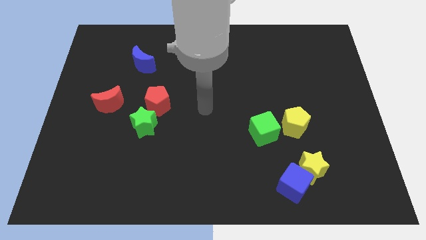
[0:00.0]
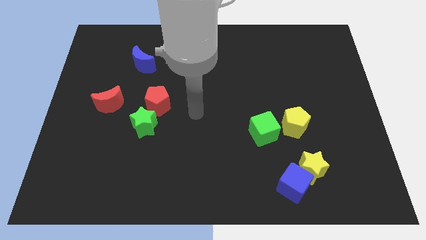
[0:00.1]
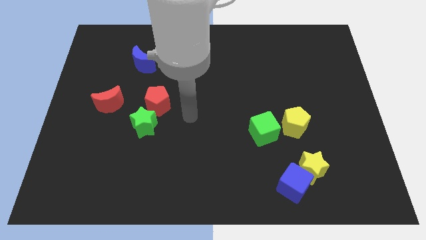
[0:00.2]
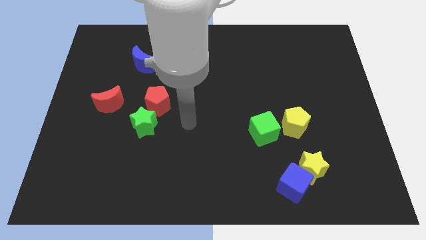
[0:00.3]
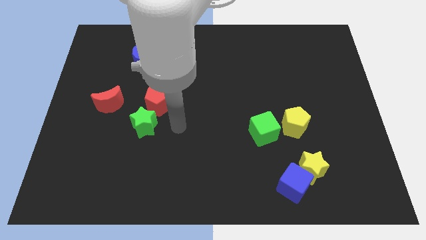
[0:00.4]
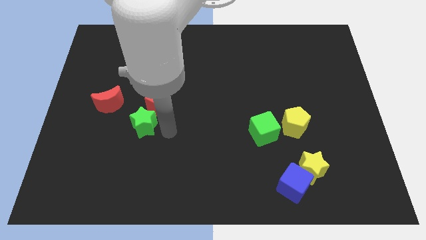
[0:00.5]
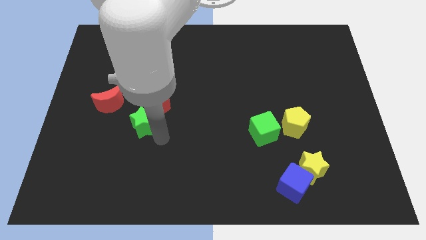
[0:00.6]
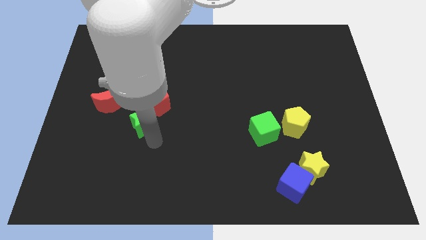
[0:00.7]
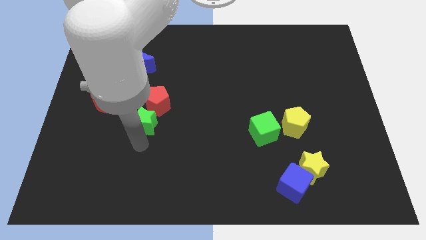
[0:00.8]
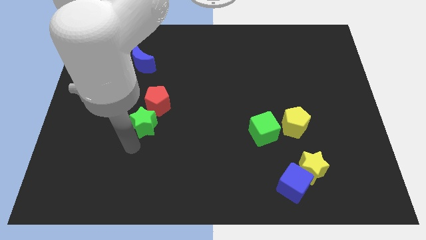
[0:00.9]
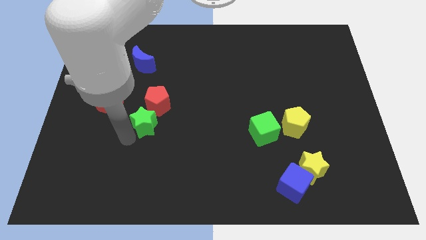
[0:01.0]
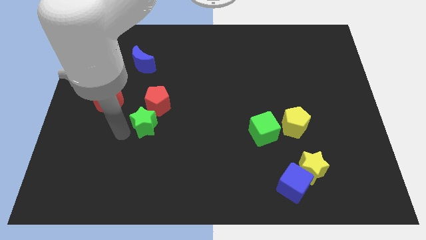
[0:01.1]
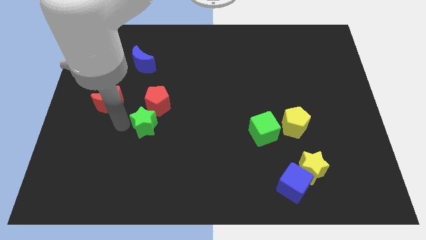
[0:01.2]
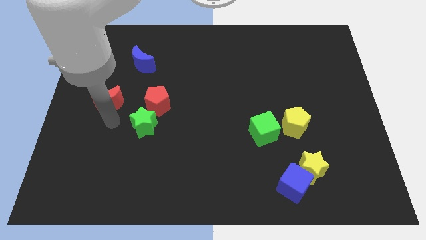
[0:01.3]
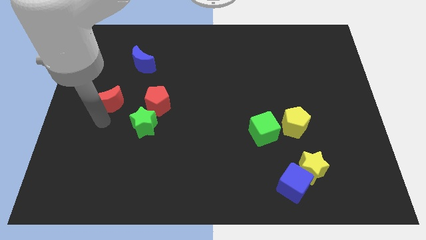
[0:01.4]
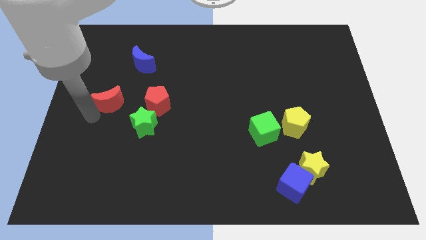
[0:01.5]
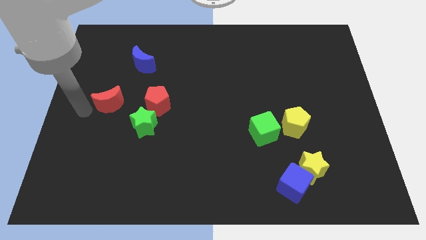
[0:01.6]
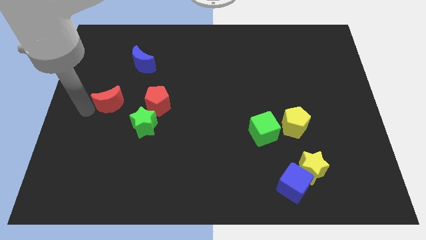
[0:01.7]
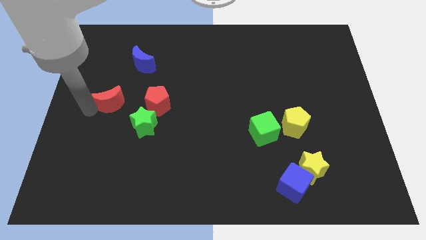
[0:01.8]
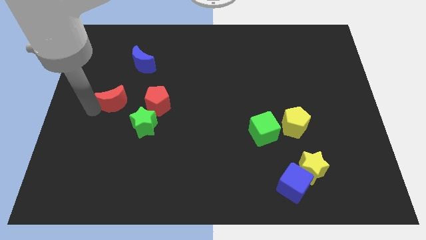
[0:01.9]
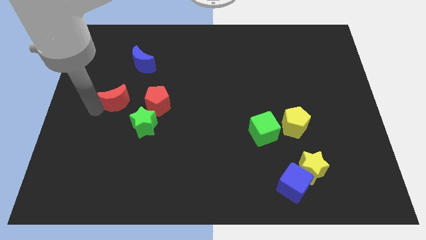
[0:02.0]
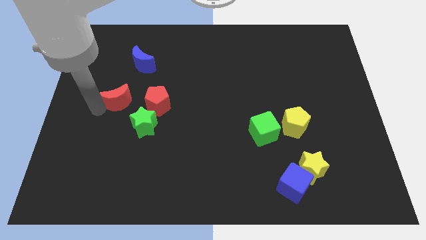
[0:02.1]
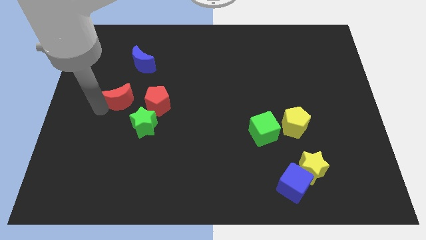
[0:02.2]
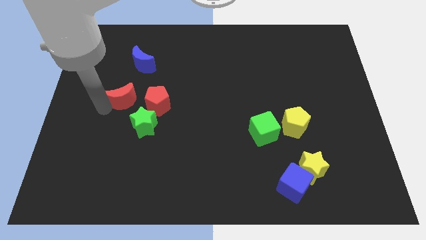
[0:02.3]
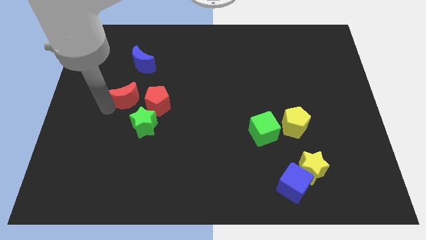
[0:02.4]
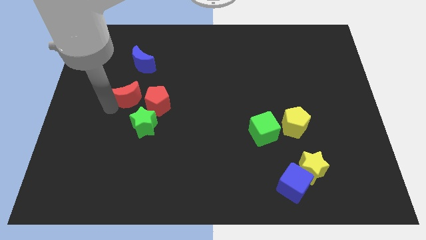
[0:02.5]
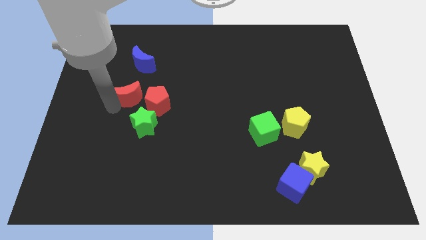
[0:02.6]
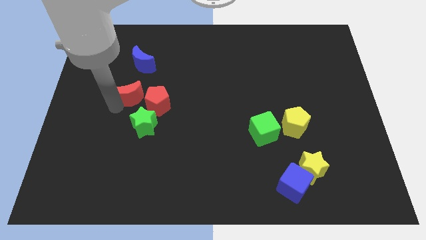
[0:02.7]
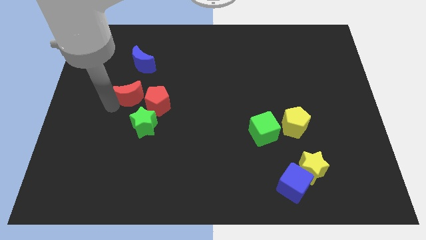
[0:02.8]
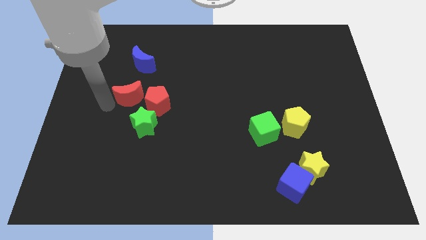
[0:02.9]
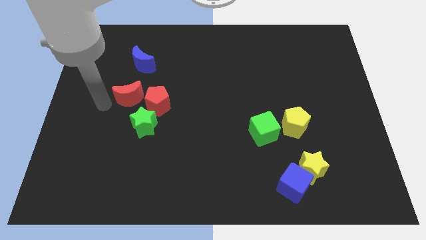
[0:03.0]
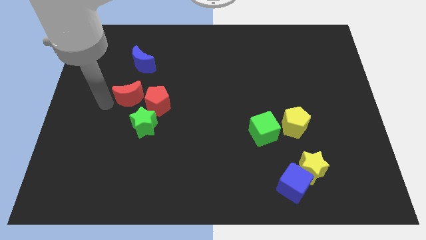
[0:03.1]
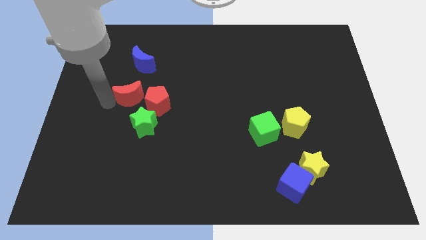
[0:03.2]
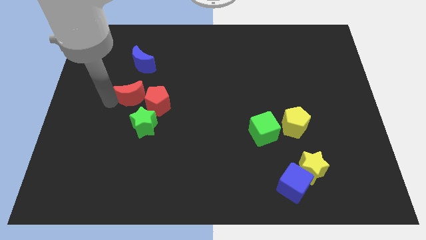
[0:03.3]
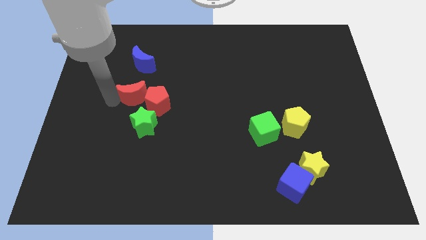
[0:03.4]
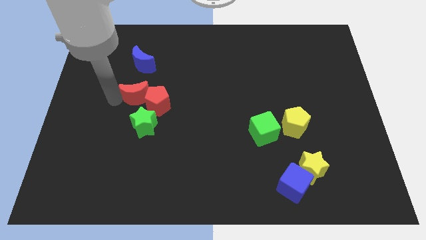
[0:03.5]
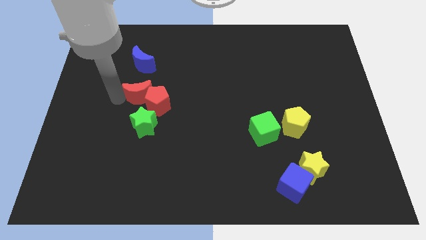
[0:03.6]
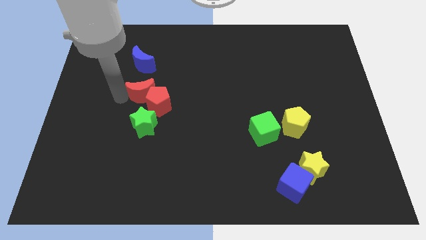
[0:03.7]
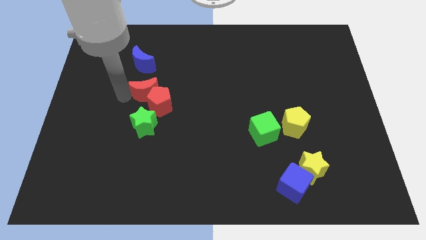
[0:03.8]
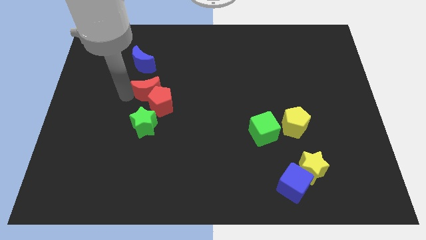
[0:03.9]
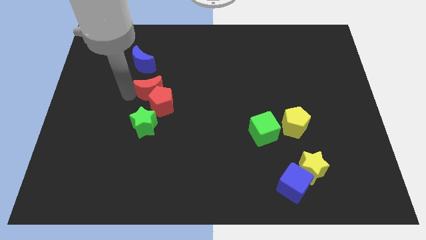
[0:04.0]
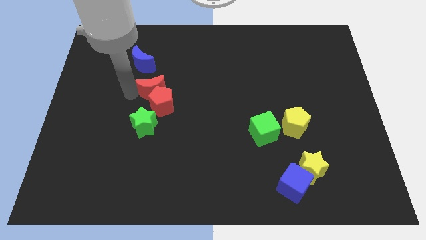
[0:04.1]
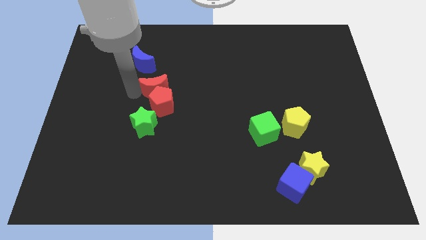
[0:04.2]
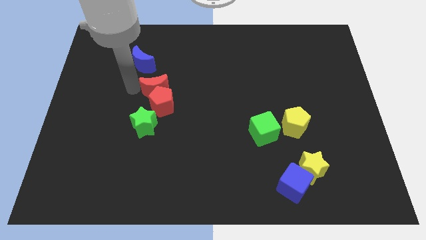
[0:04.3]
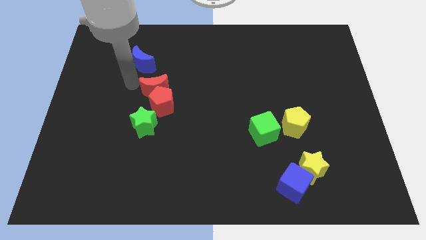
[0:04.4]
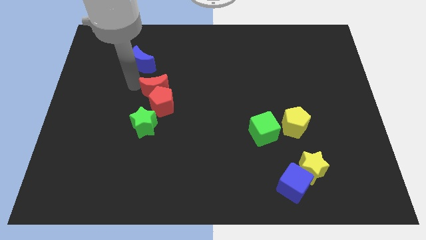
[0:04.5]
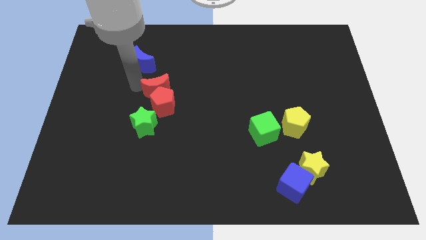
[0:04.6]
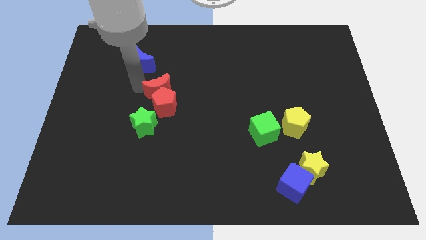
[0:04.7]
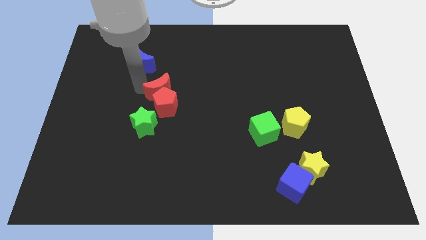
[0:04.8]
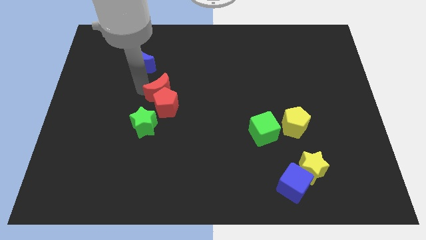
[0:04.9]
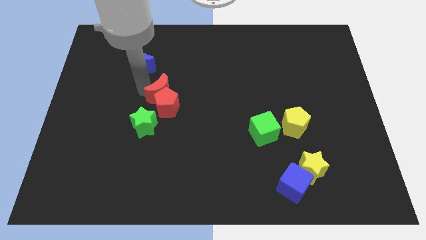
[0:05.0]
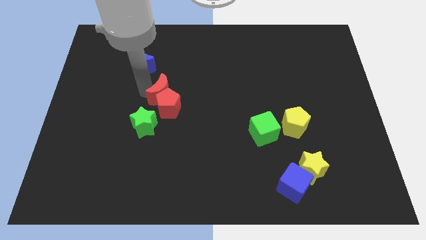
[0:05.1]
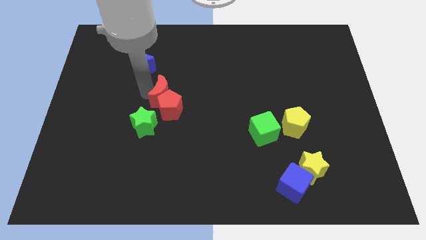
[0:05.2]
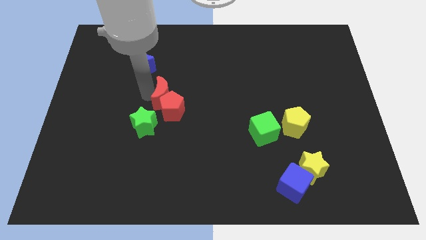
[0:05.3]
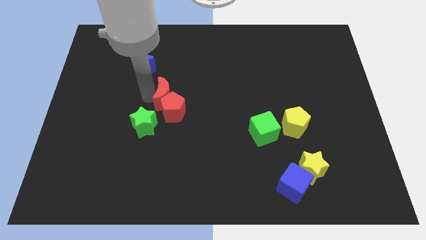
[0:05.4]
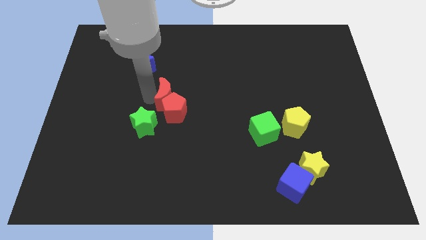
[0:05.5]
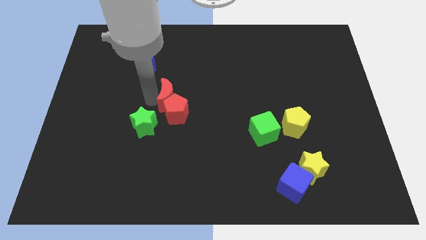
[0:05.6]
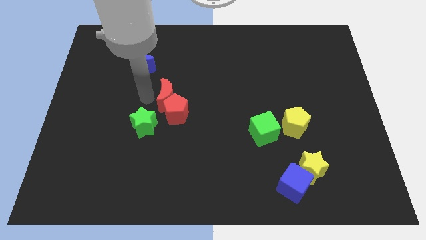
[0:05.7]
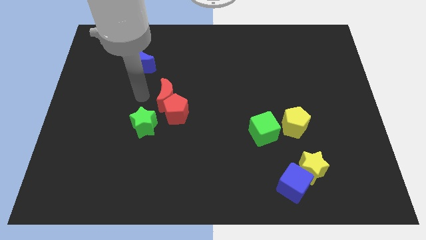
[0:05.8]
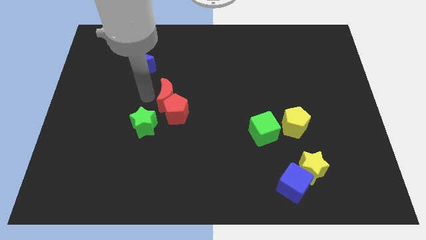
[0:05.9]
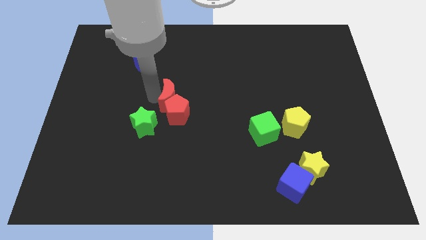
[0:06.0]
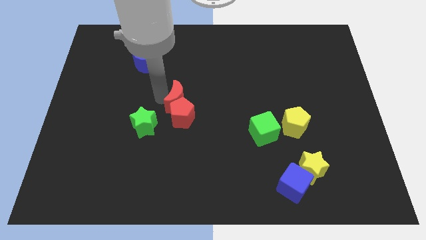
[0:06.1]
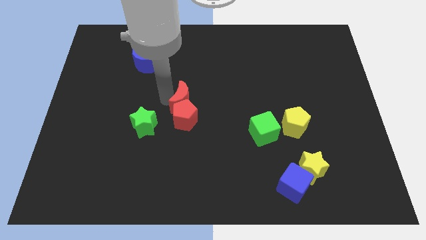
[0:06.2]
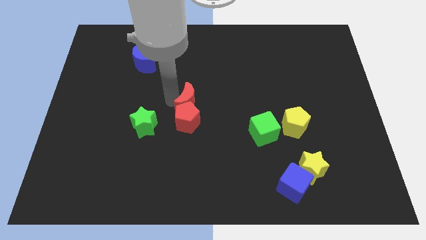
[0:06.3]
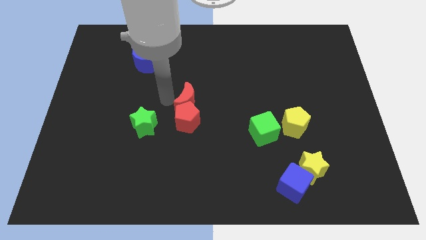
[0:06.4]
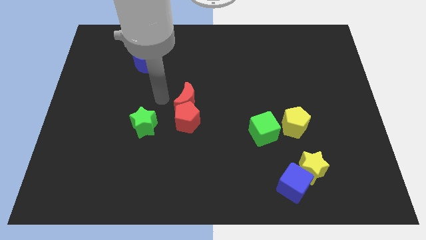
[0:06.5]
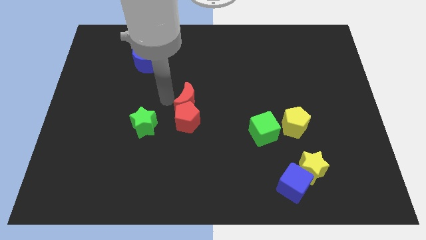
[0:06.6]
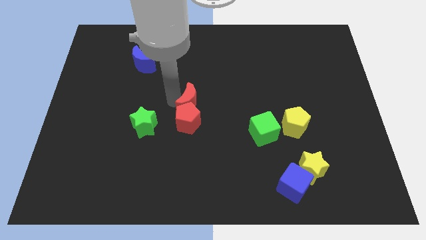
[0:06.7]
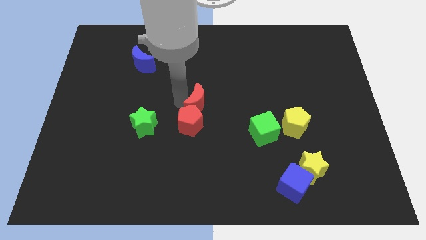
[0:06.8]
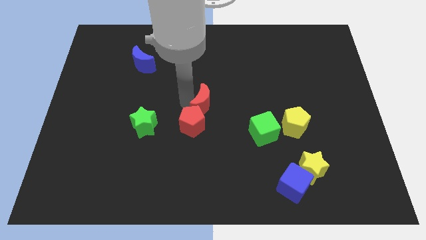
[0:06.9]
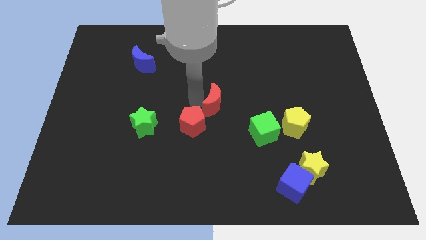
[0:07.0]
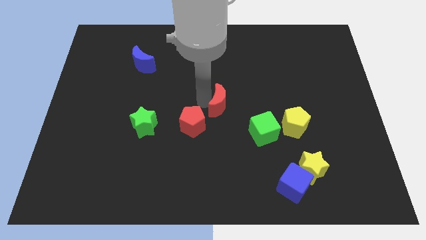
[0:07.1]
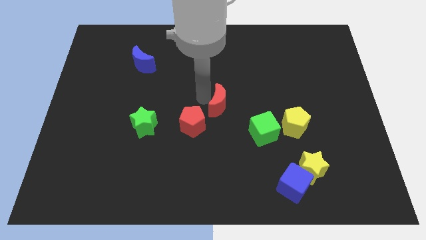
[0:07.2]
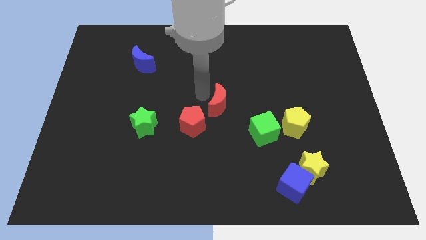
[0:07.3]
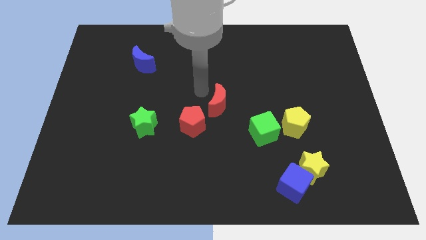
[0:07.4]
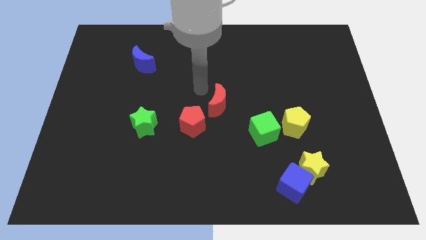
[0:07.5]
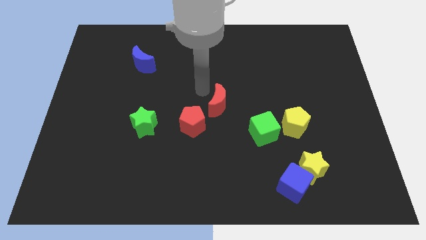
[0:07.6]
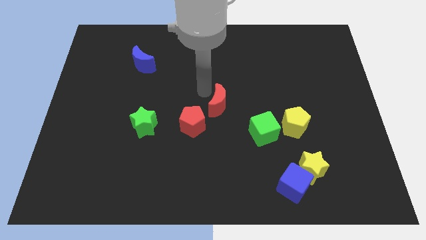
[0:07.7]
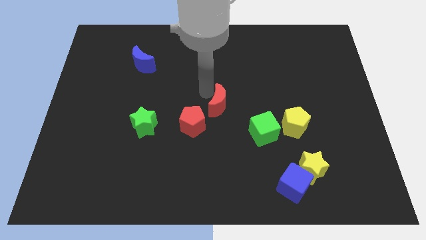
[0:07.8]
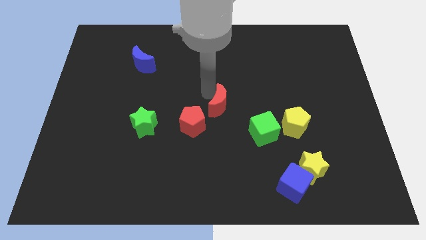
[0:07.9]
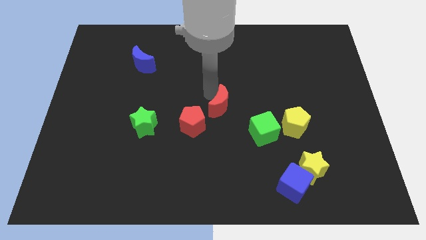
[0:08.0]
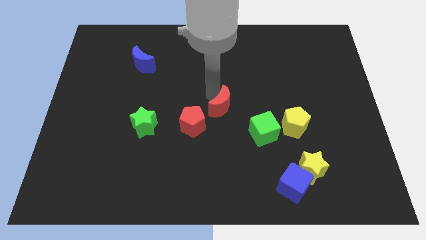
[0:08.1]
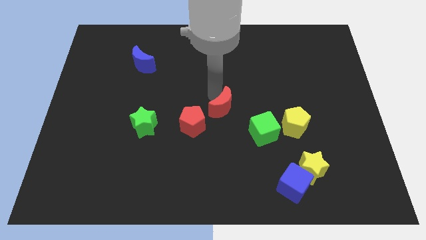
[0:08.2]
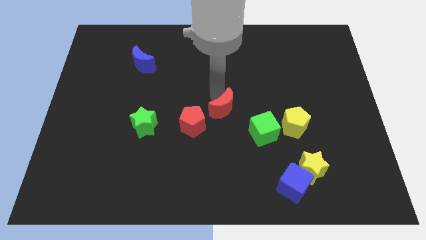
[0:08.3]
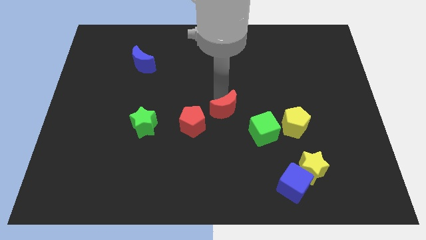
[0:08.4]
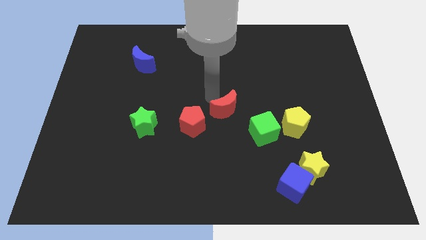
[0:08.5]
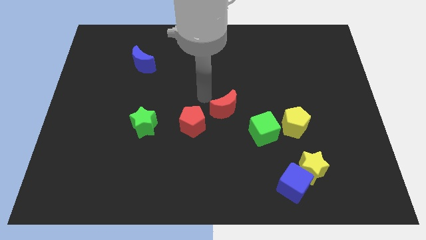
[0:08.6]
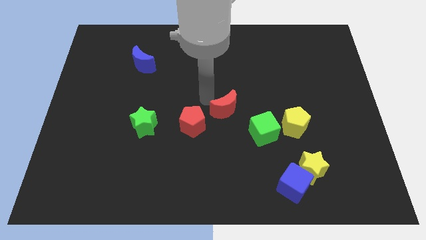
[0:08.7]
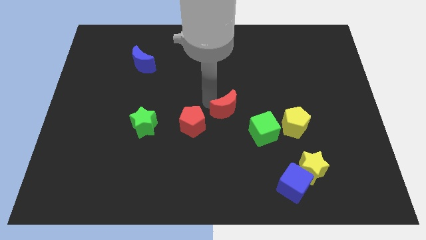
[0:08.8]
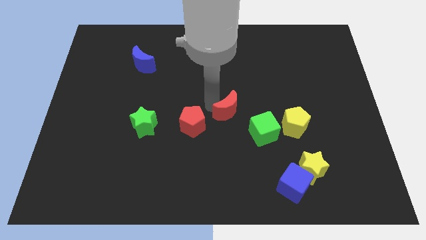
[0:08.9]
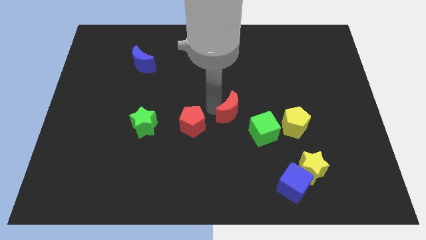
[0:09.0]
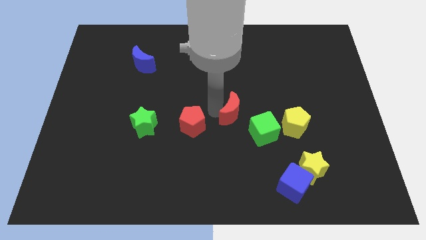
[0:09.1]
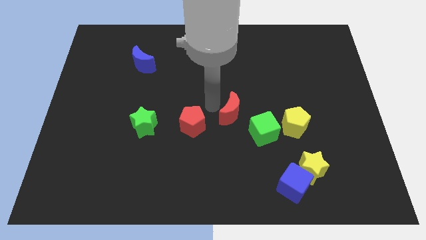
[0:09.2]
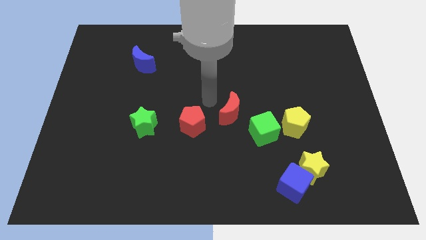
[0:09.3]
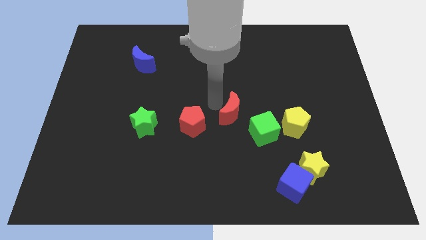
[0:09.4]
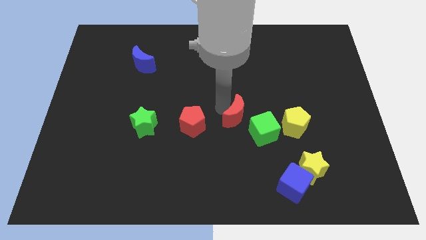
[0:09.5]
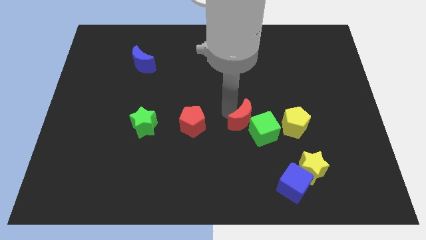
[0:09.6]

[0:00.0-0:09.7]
put the red moon close to the green cube
